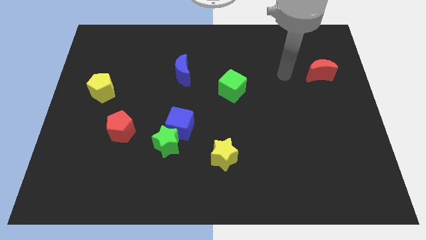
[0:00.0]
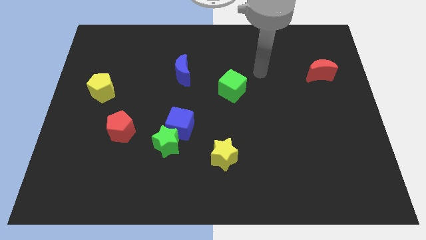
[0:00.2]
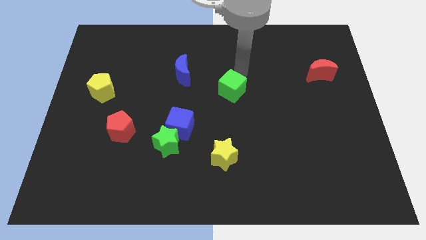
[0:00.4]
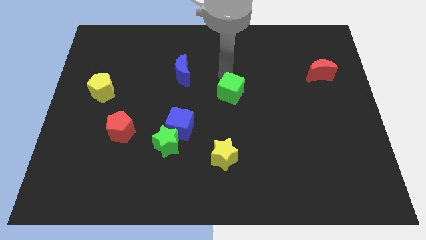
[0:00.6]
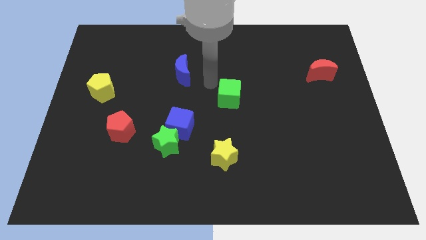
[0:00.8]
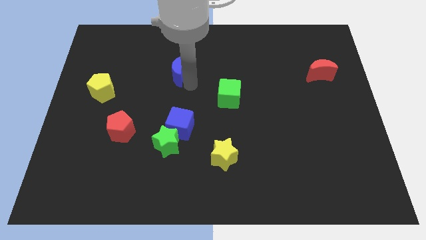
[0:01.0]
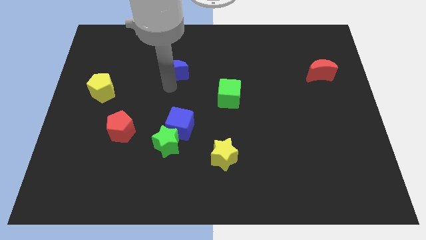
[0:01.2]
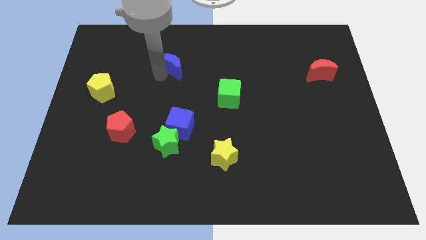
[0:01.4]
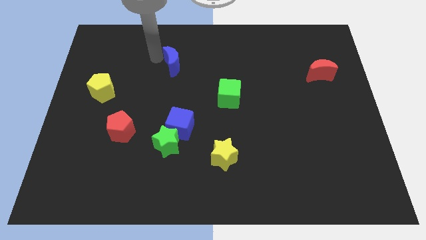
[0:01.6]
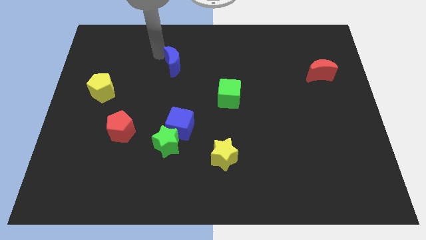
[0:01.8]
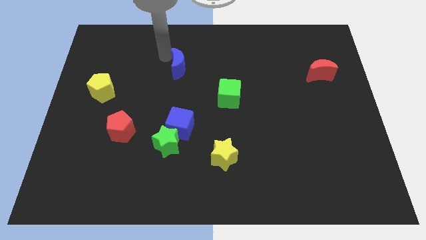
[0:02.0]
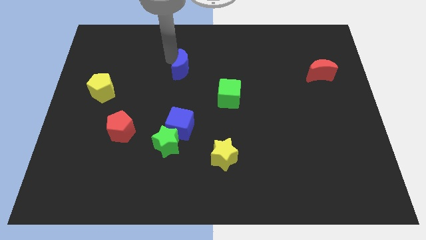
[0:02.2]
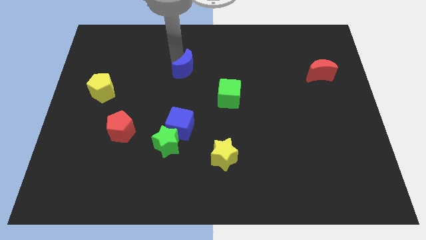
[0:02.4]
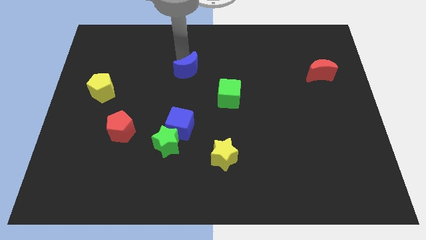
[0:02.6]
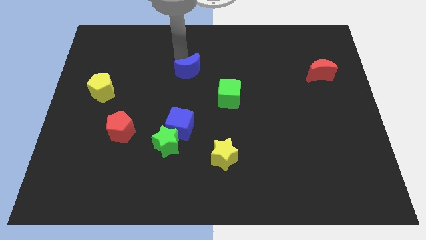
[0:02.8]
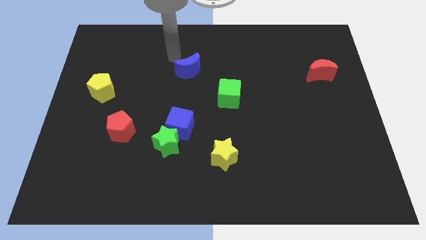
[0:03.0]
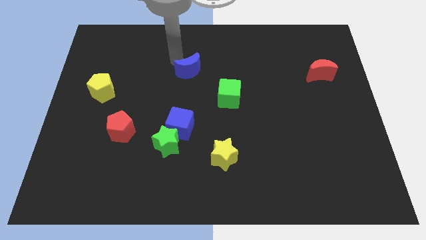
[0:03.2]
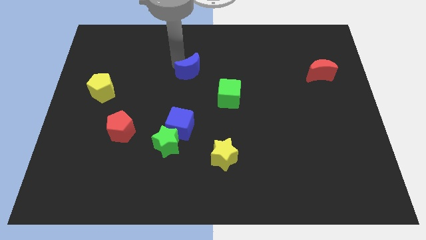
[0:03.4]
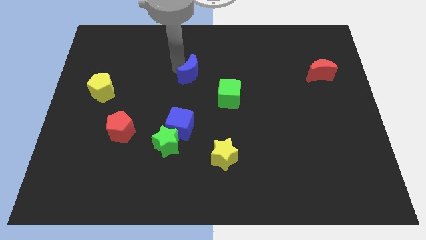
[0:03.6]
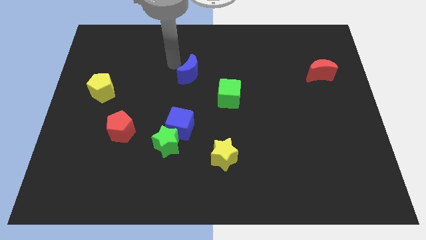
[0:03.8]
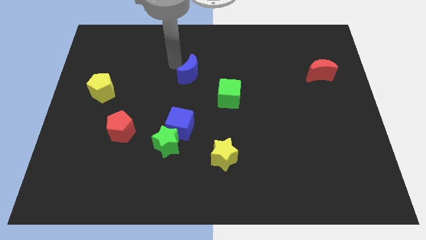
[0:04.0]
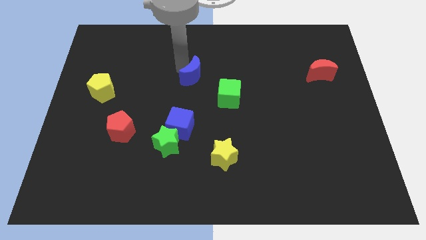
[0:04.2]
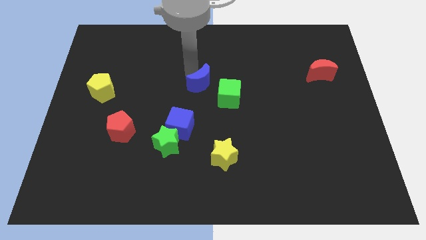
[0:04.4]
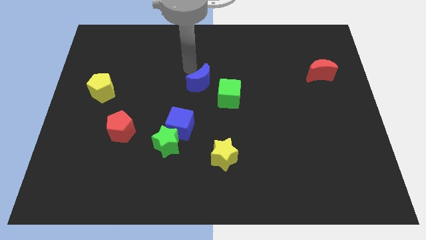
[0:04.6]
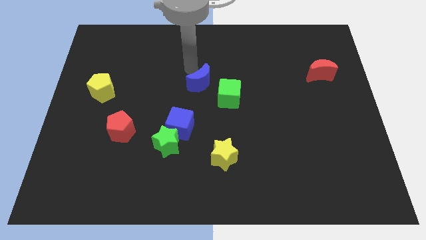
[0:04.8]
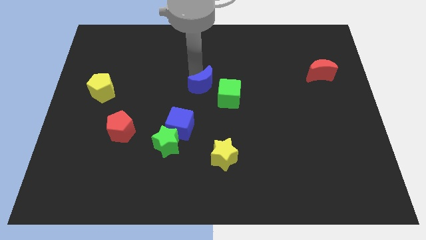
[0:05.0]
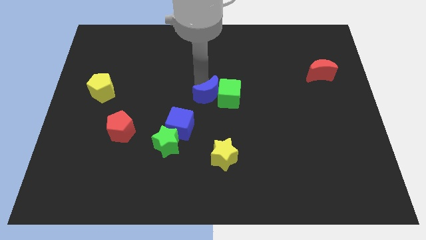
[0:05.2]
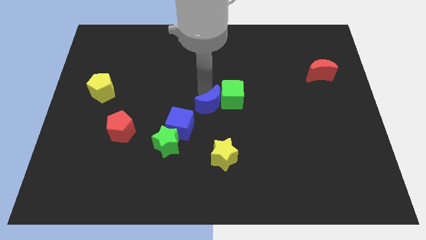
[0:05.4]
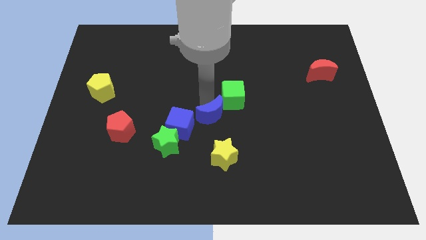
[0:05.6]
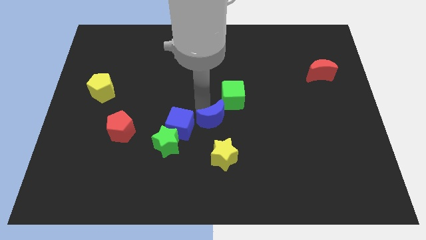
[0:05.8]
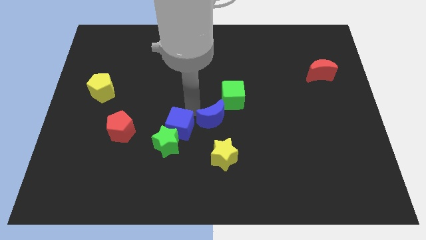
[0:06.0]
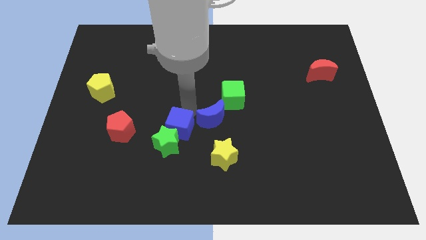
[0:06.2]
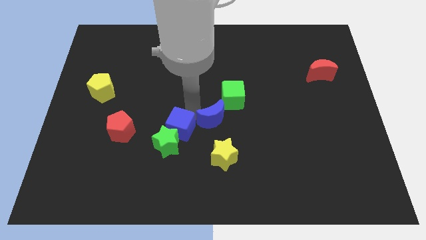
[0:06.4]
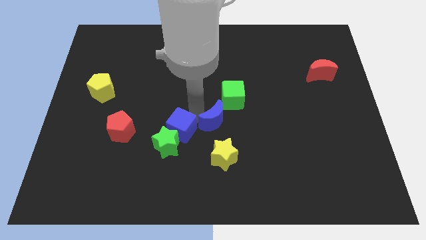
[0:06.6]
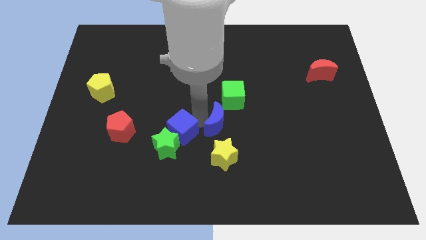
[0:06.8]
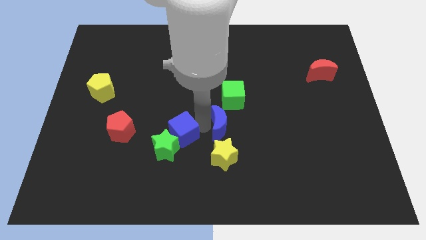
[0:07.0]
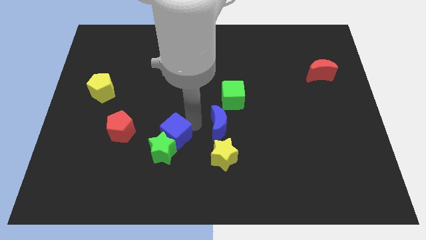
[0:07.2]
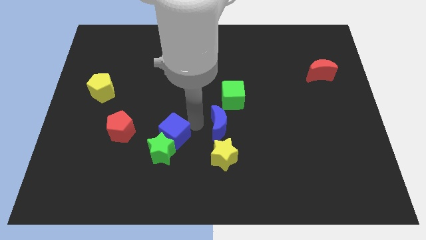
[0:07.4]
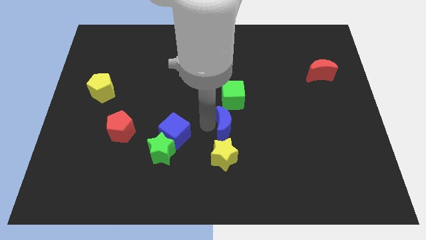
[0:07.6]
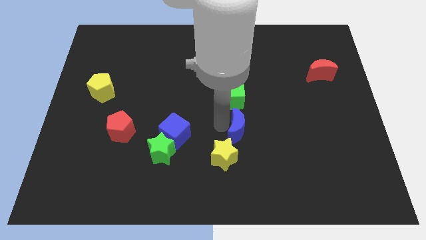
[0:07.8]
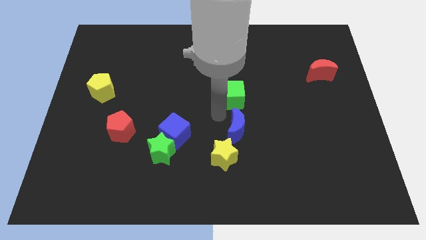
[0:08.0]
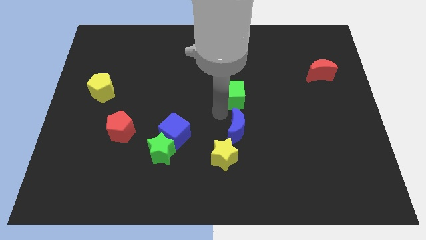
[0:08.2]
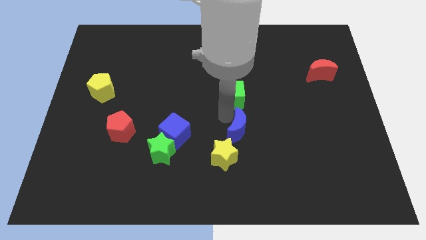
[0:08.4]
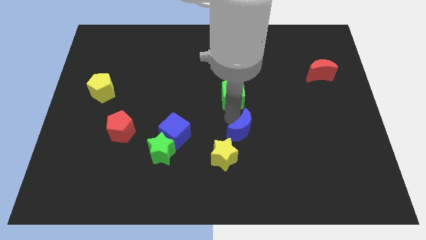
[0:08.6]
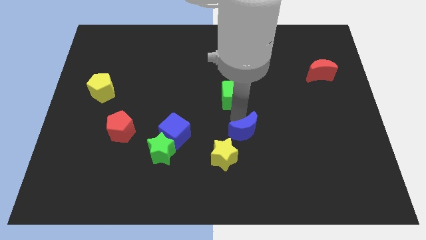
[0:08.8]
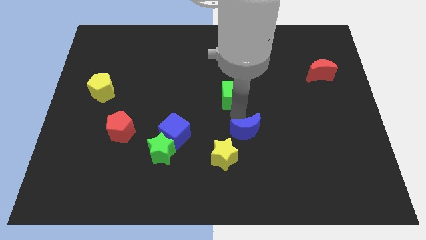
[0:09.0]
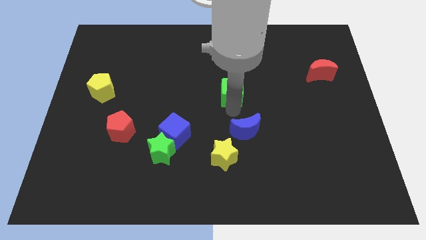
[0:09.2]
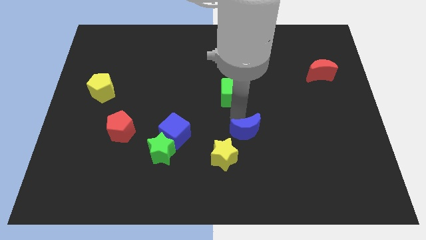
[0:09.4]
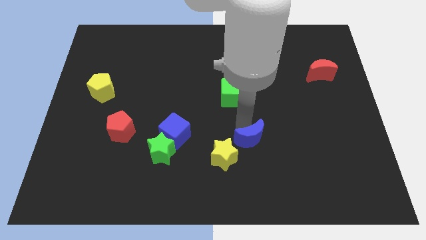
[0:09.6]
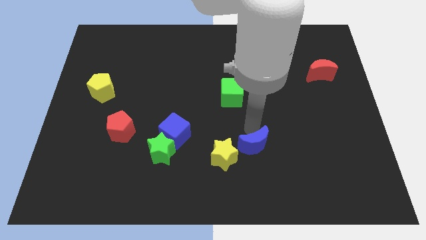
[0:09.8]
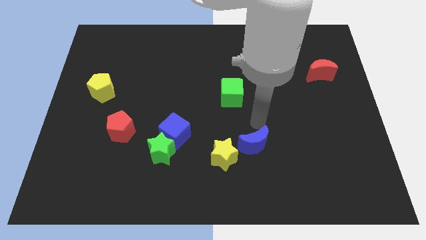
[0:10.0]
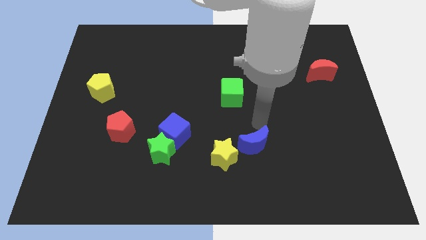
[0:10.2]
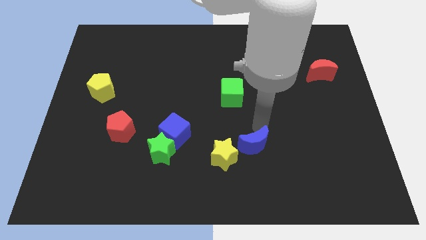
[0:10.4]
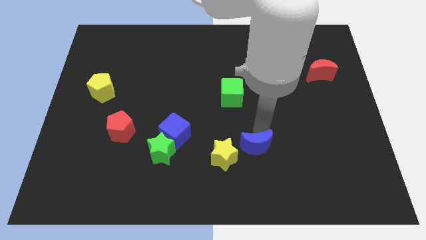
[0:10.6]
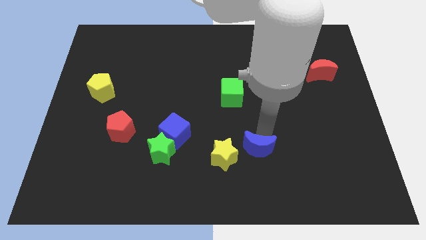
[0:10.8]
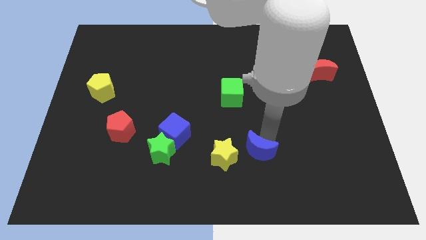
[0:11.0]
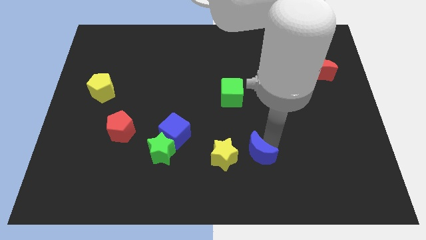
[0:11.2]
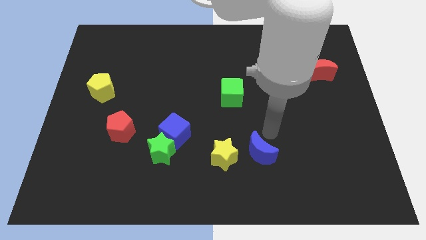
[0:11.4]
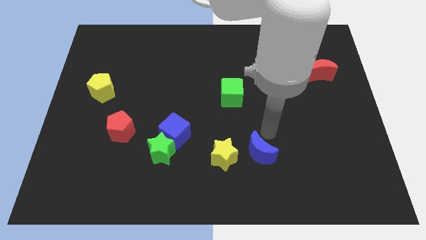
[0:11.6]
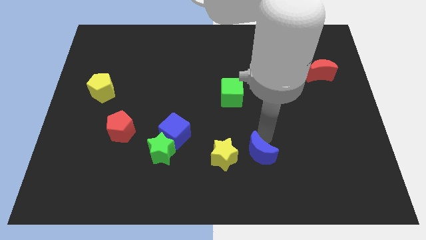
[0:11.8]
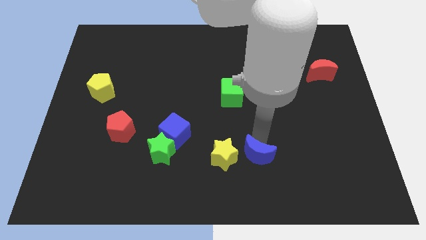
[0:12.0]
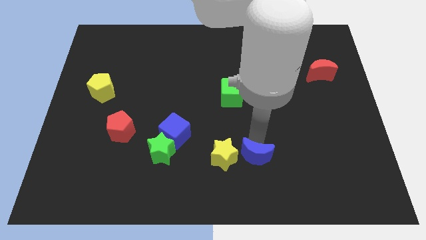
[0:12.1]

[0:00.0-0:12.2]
move the blue moon to the bottom right side of the yellow star
